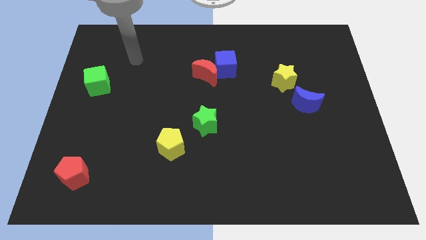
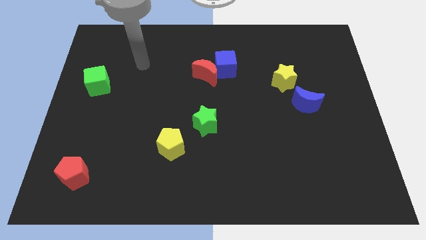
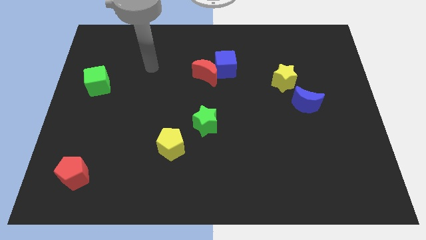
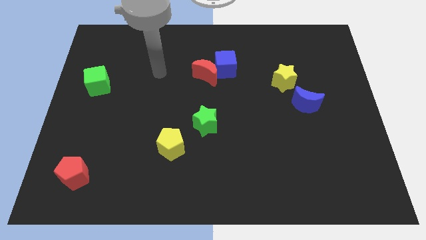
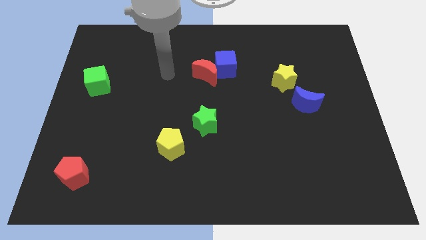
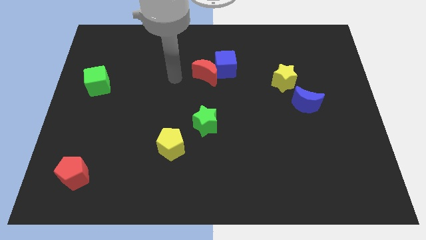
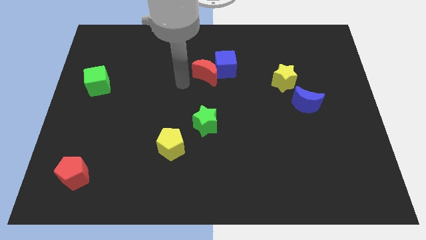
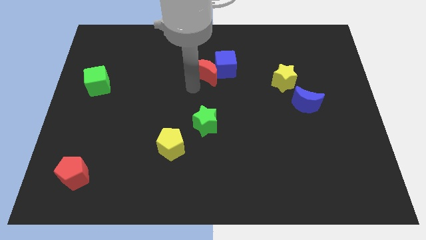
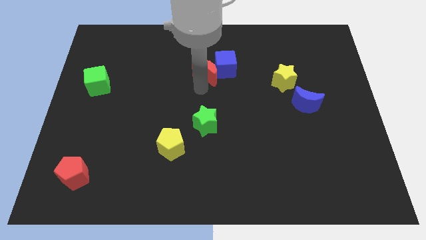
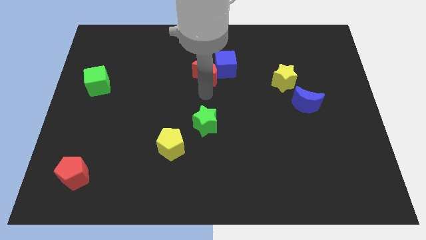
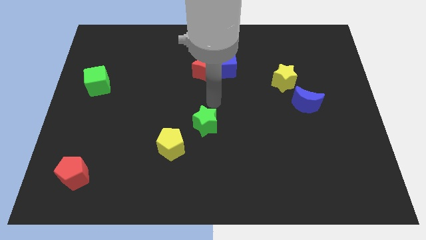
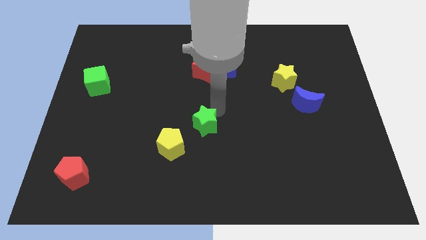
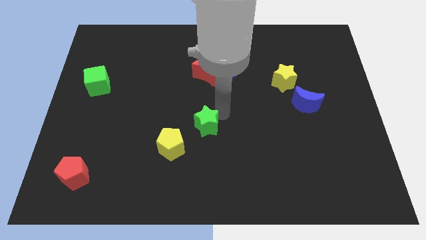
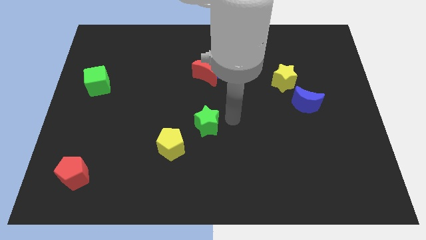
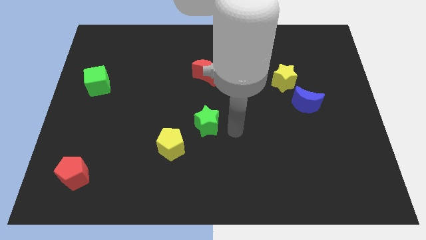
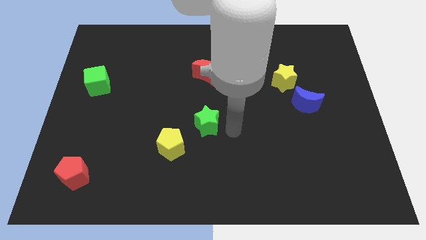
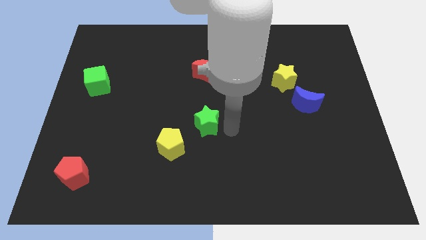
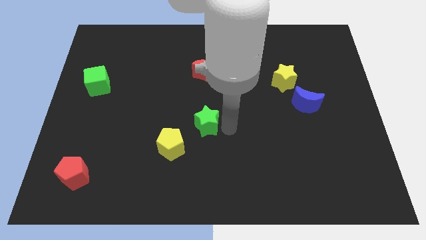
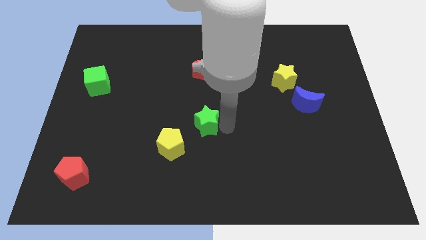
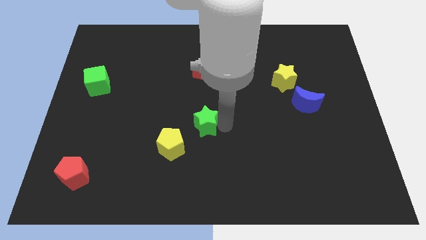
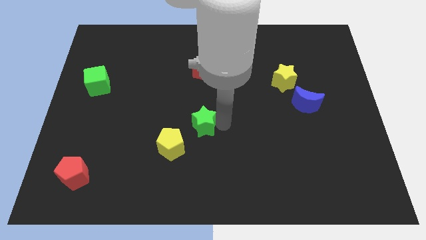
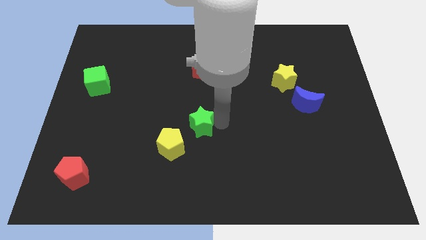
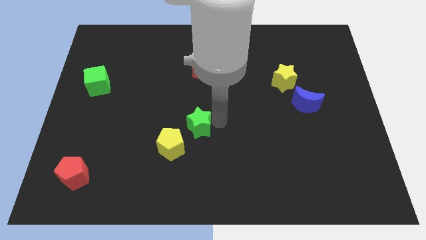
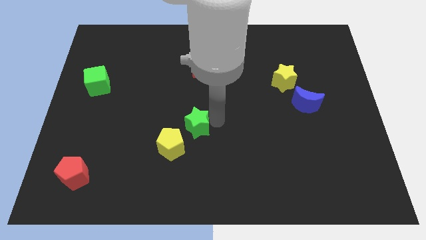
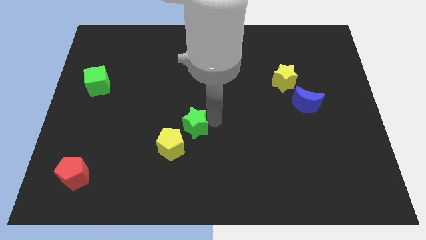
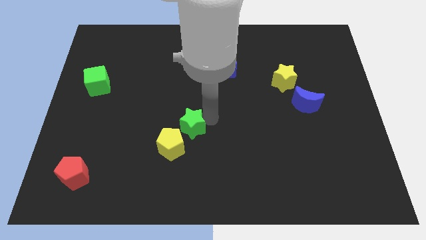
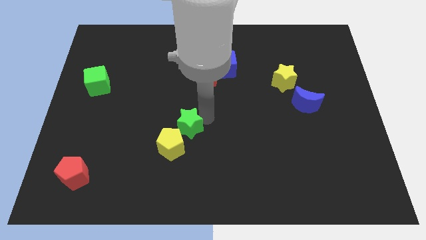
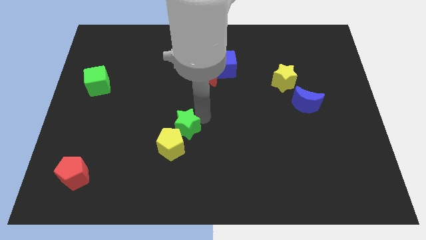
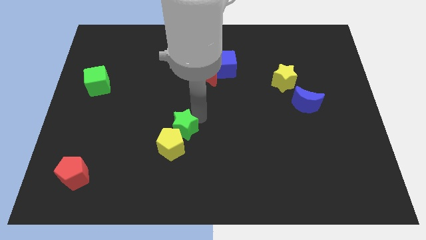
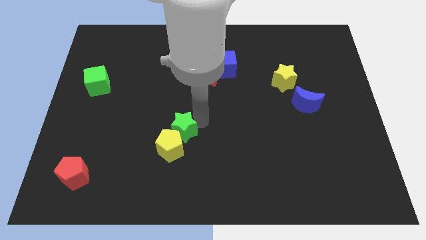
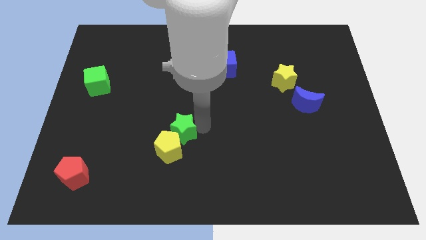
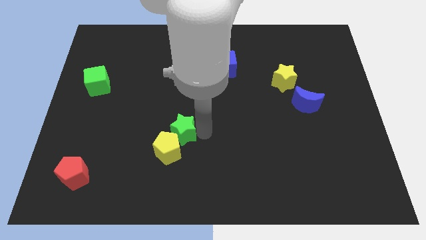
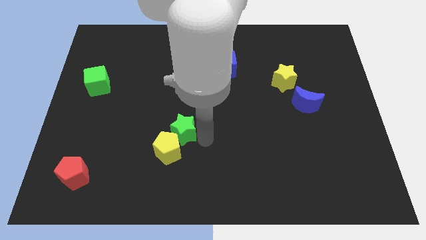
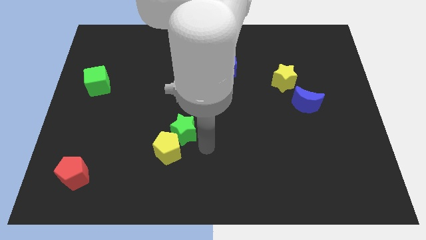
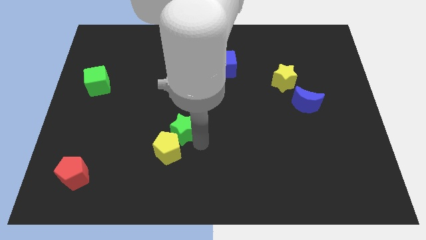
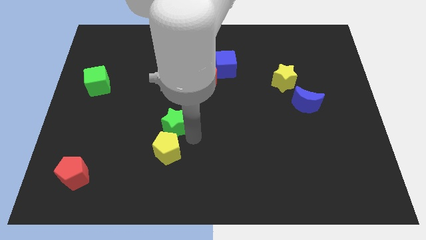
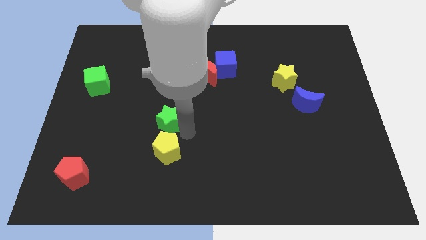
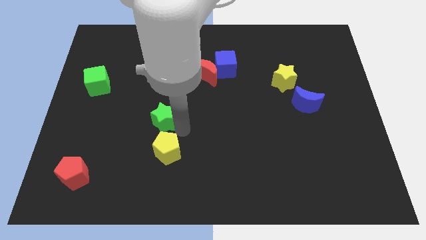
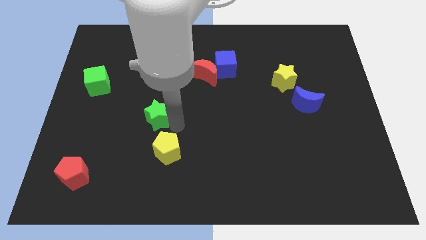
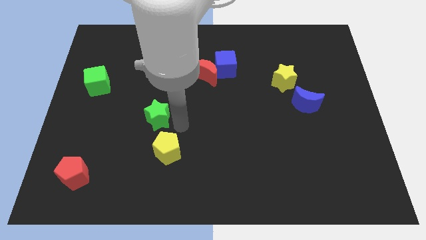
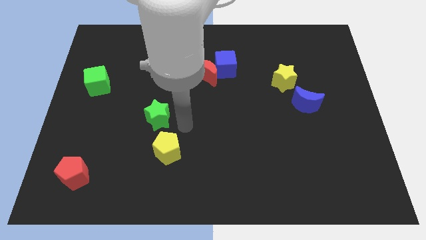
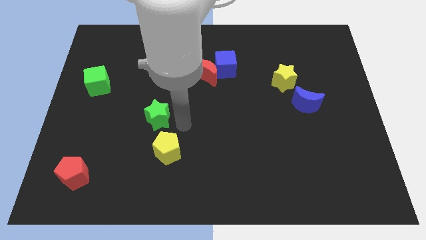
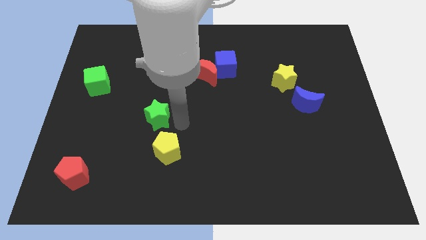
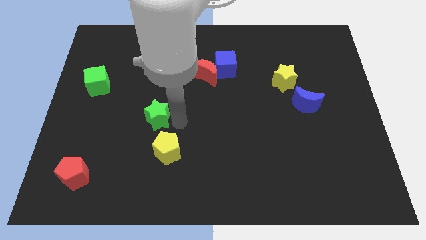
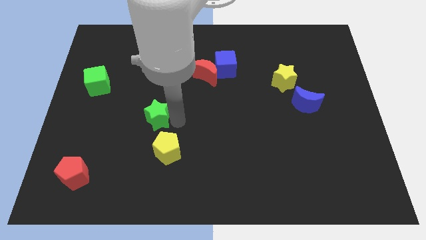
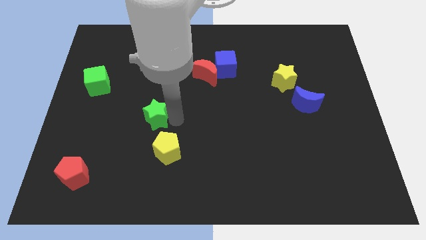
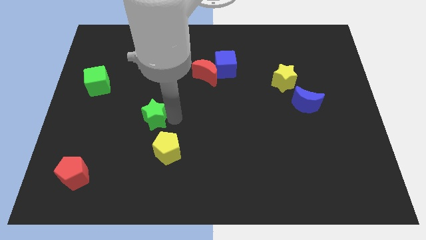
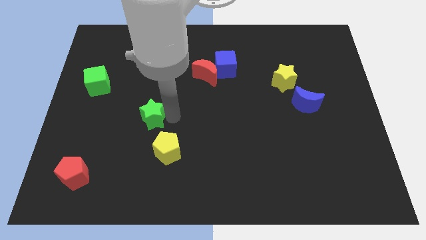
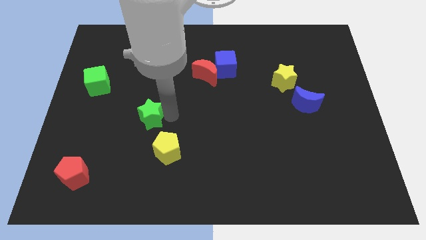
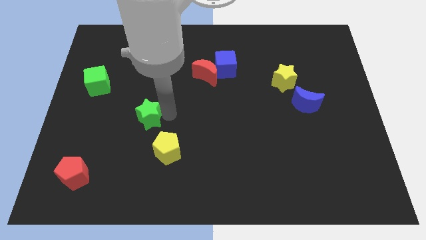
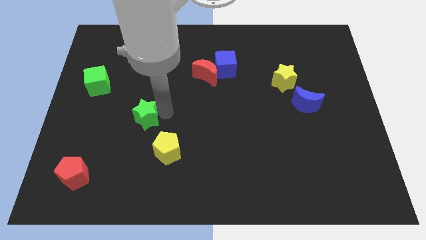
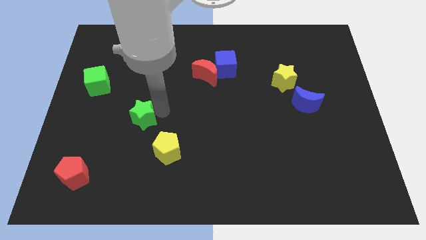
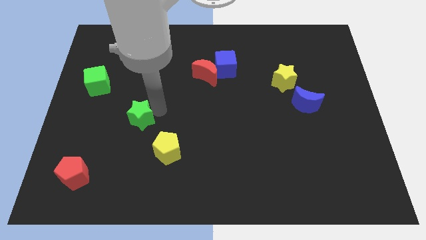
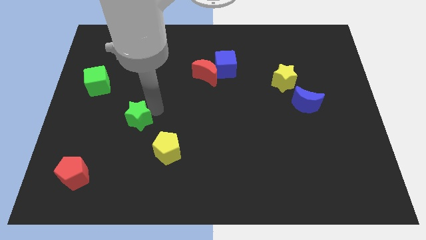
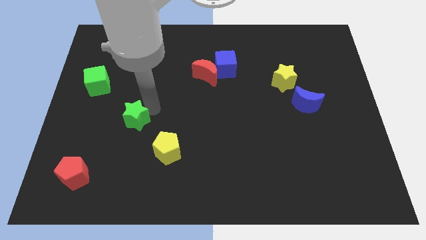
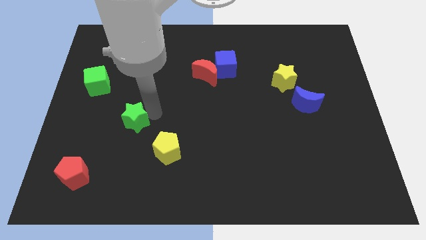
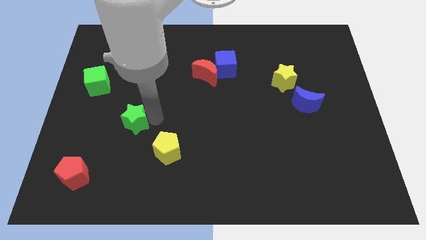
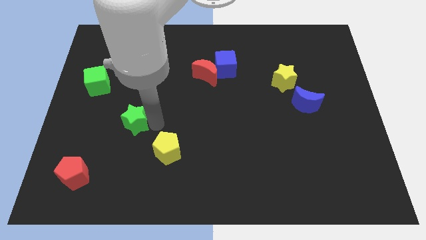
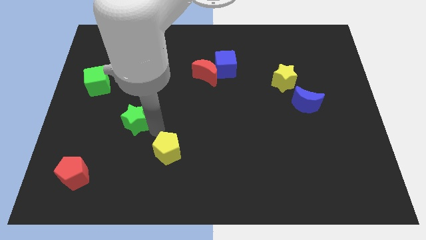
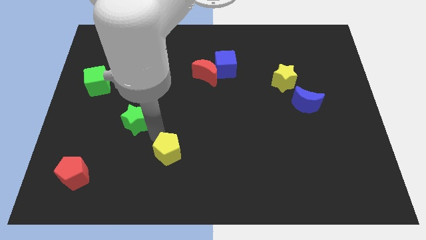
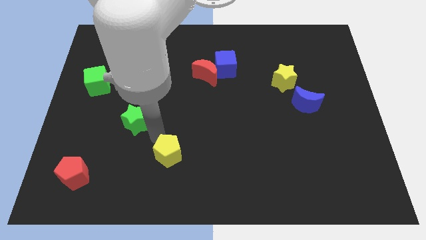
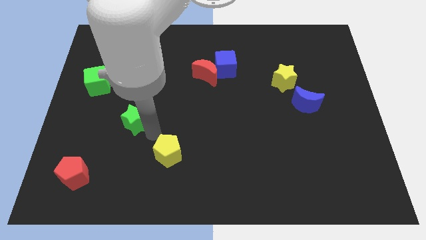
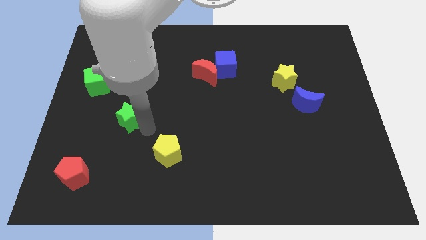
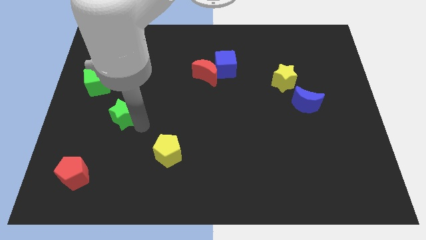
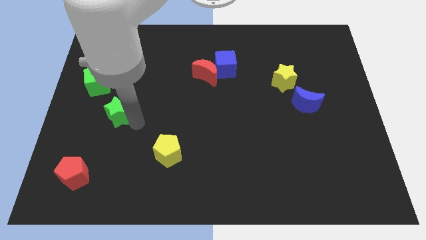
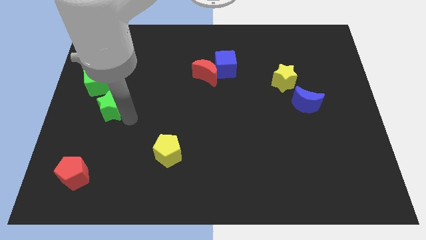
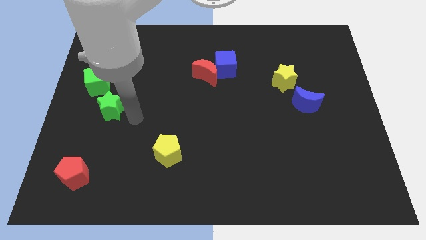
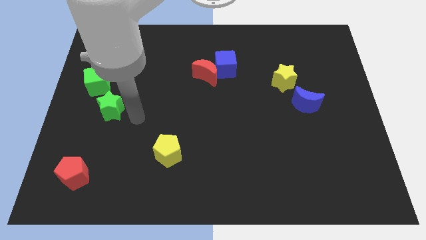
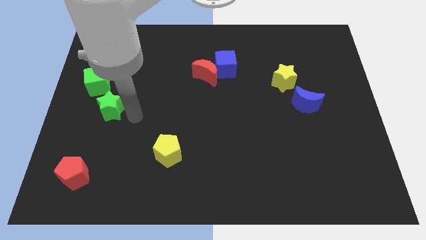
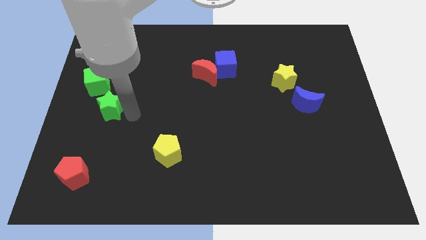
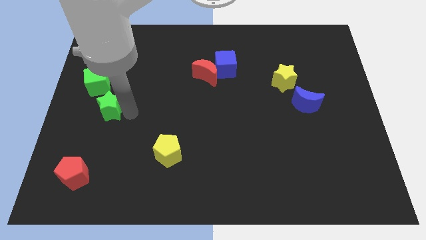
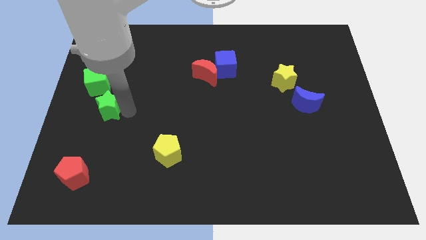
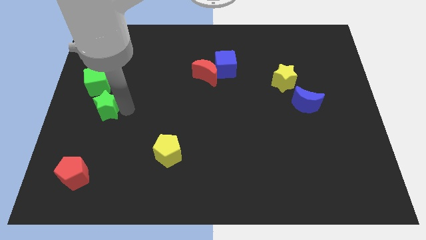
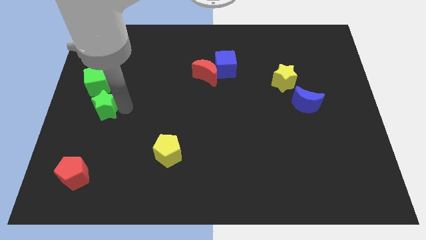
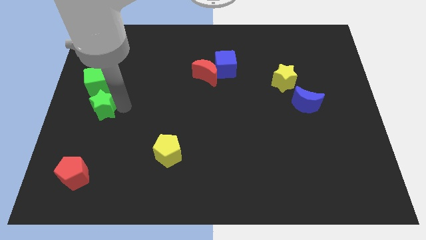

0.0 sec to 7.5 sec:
slide the green star to the left side of the board
